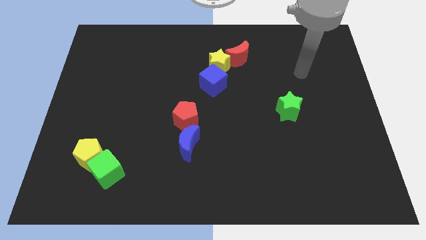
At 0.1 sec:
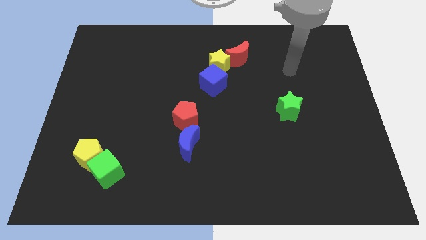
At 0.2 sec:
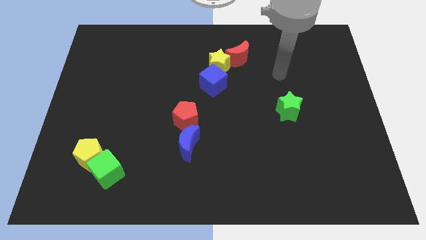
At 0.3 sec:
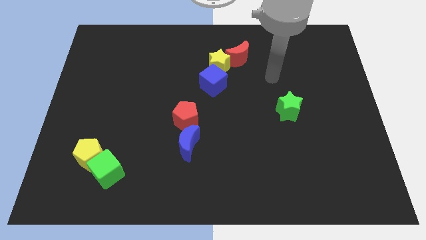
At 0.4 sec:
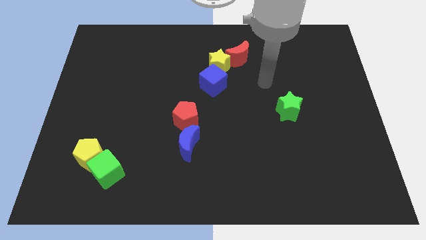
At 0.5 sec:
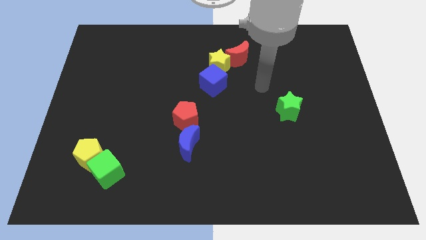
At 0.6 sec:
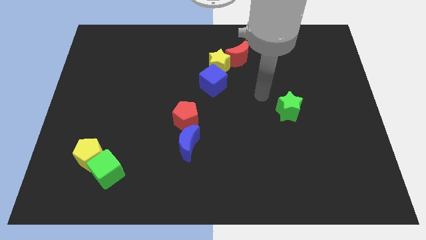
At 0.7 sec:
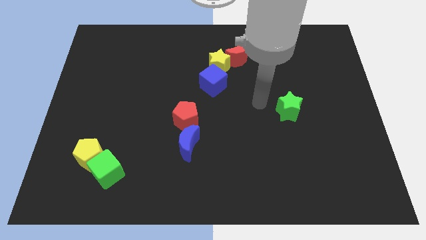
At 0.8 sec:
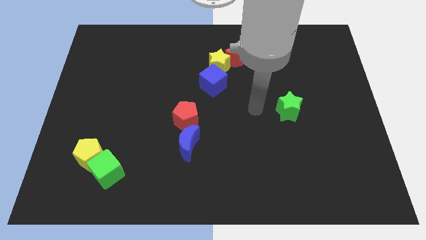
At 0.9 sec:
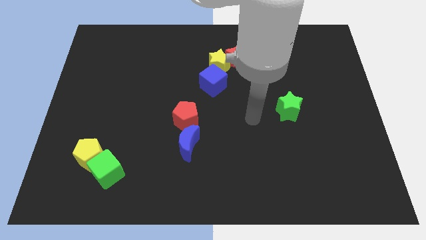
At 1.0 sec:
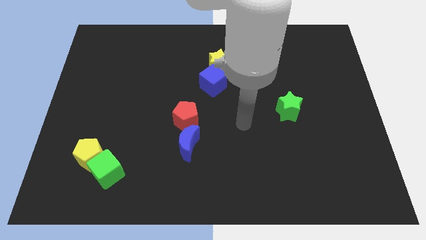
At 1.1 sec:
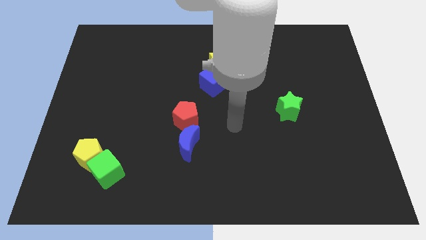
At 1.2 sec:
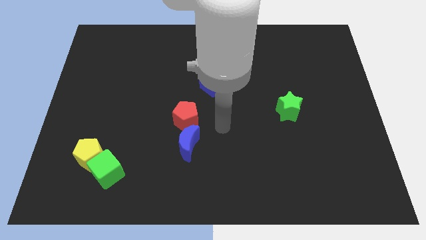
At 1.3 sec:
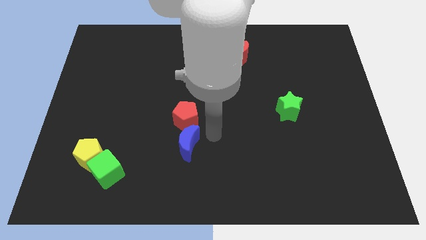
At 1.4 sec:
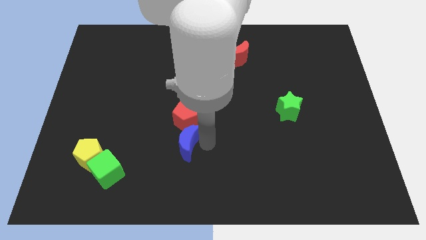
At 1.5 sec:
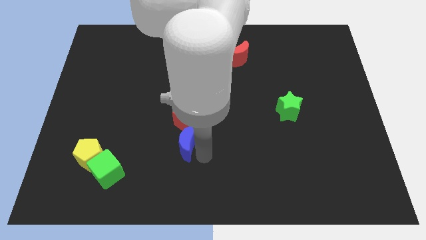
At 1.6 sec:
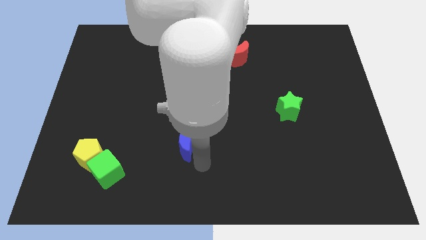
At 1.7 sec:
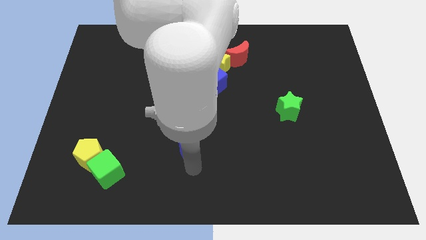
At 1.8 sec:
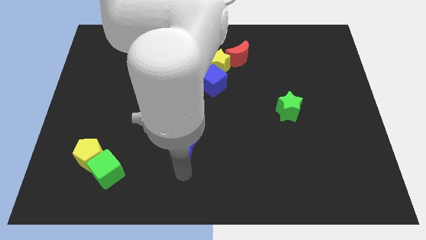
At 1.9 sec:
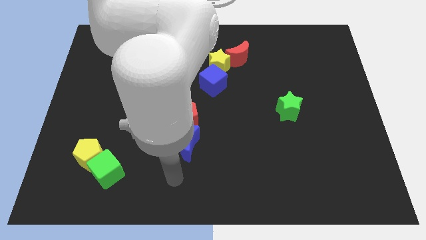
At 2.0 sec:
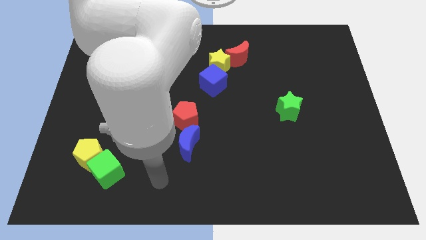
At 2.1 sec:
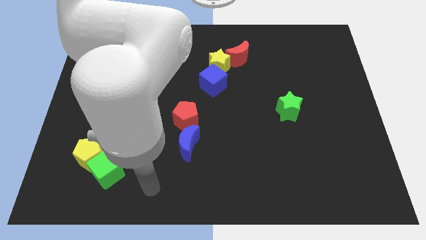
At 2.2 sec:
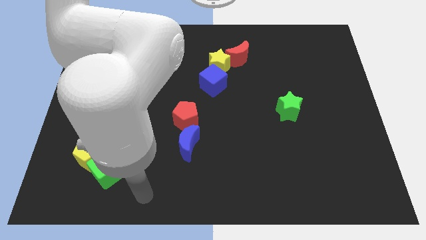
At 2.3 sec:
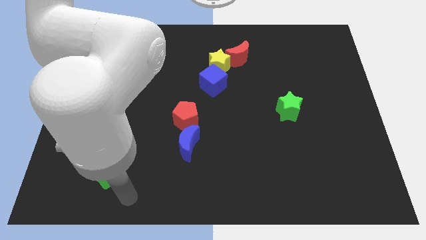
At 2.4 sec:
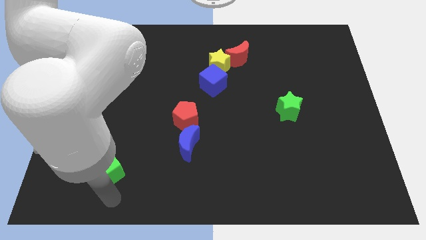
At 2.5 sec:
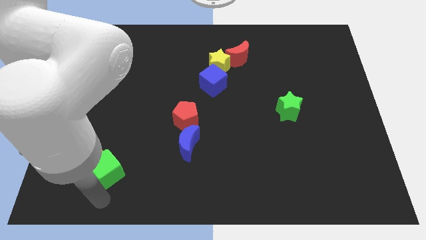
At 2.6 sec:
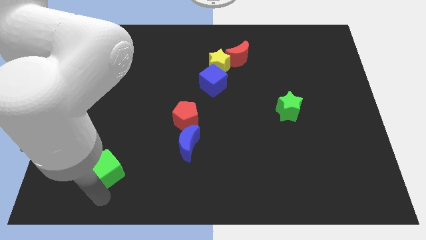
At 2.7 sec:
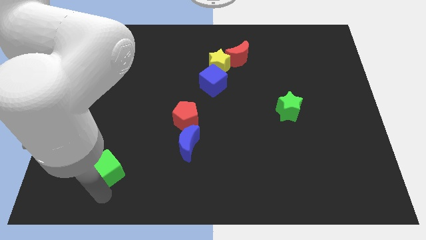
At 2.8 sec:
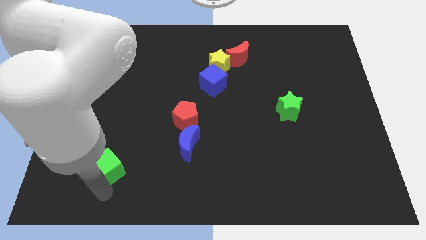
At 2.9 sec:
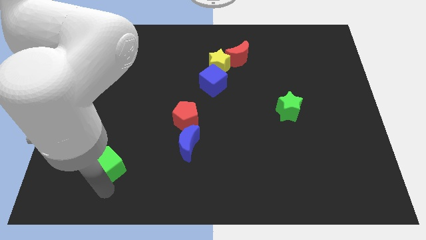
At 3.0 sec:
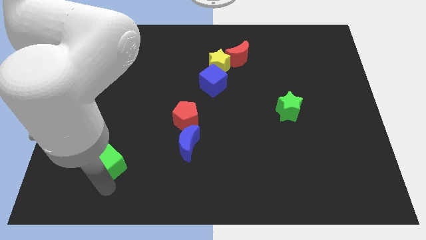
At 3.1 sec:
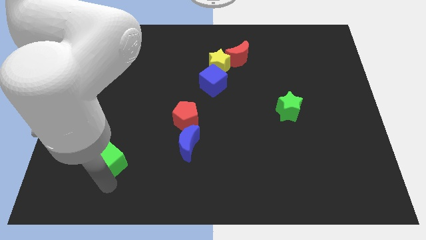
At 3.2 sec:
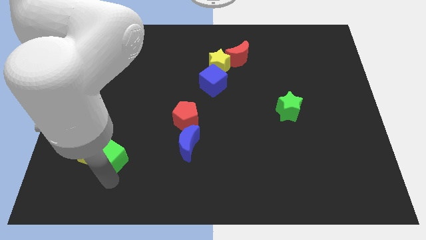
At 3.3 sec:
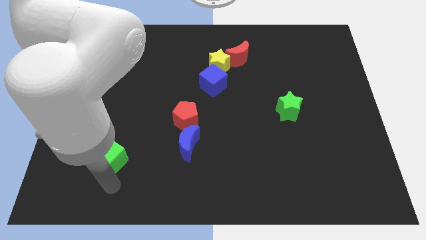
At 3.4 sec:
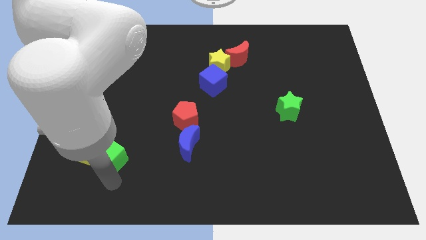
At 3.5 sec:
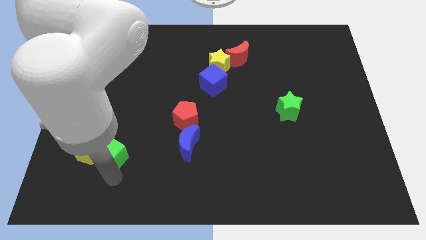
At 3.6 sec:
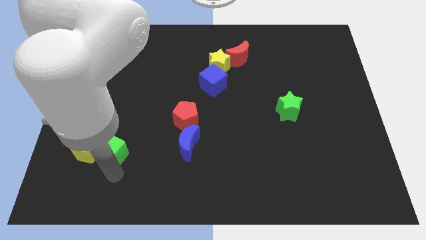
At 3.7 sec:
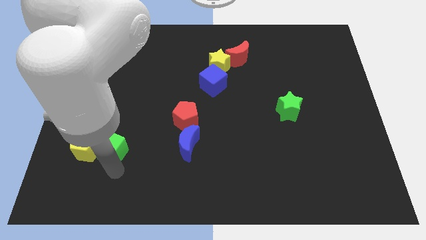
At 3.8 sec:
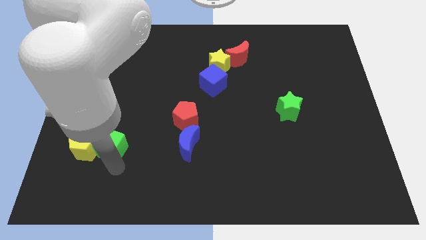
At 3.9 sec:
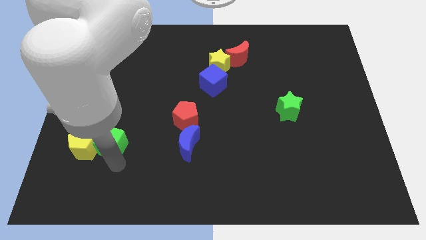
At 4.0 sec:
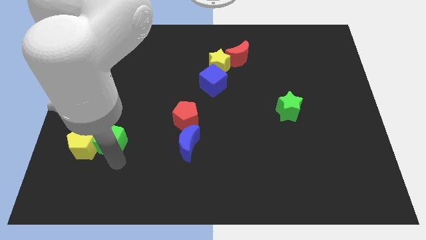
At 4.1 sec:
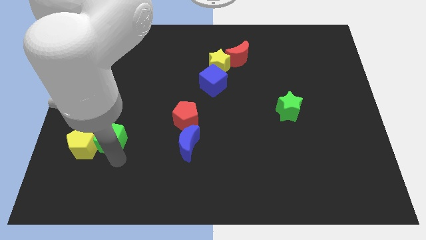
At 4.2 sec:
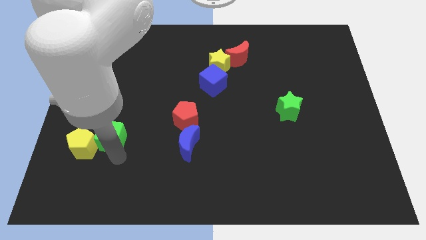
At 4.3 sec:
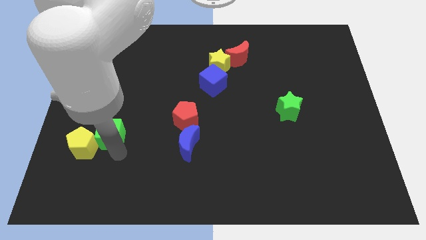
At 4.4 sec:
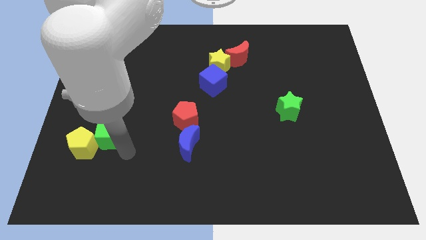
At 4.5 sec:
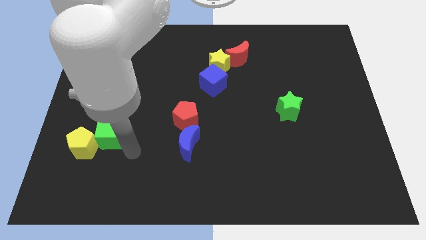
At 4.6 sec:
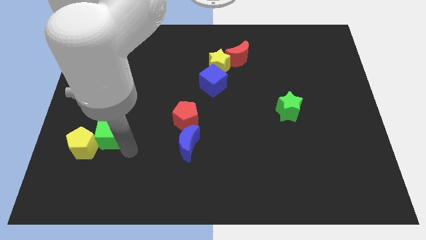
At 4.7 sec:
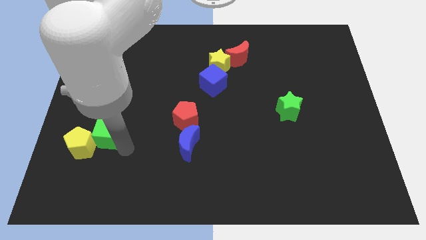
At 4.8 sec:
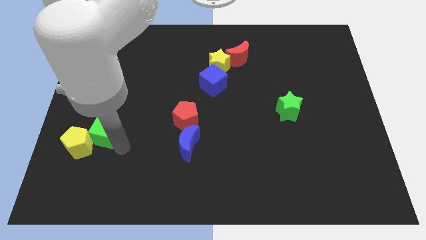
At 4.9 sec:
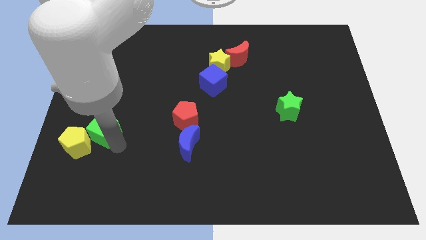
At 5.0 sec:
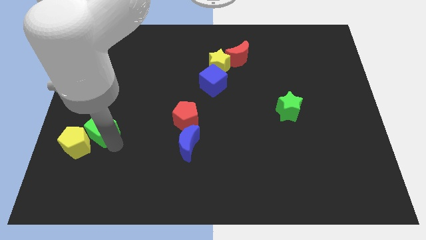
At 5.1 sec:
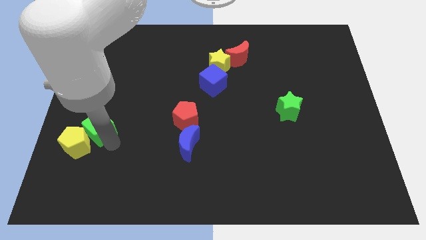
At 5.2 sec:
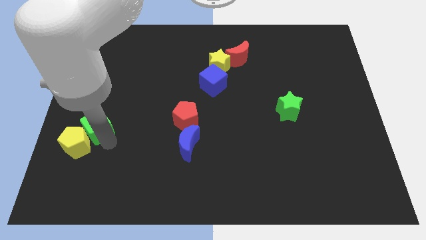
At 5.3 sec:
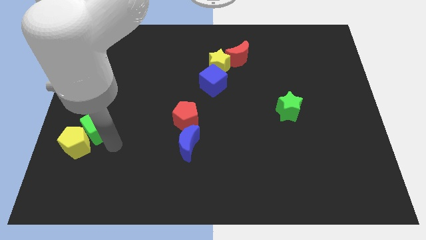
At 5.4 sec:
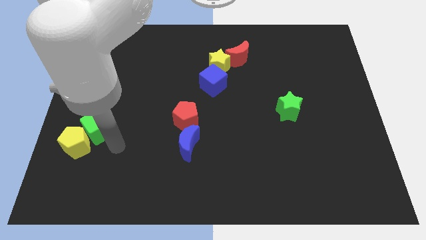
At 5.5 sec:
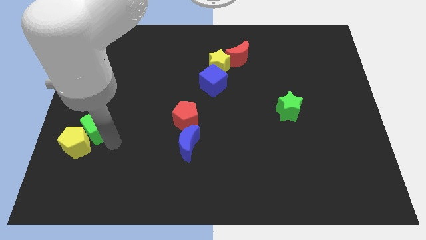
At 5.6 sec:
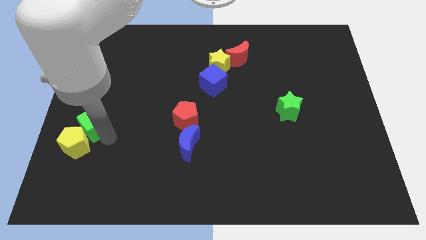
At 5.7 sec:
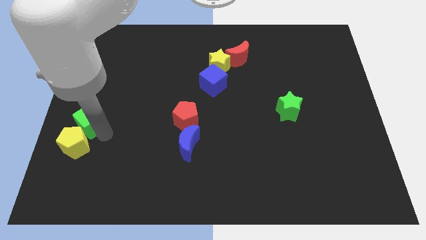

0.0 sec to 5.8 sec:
slide the green cube to the center left

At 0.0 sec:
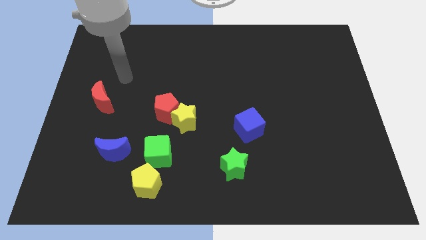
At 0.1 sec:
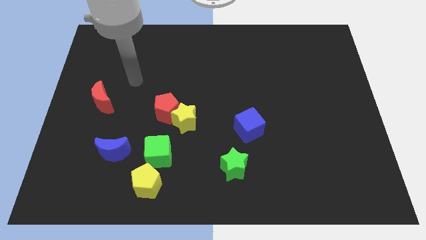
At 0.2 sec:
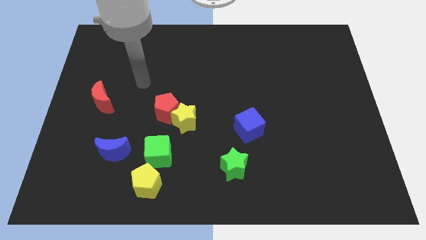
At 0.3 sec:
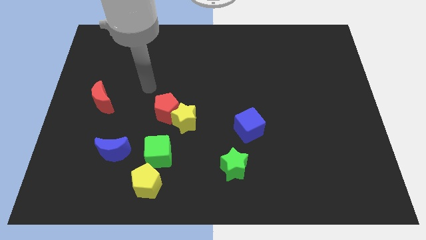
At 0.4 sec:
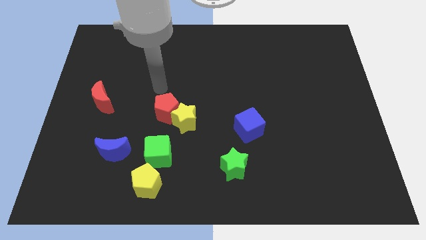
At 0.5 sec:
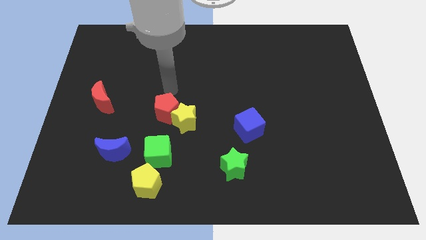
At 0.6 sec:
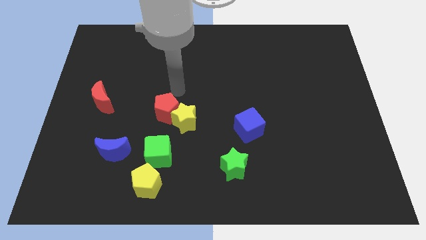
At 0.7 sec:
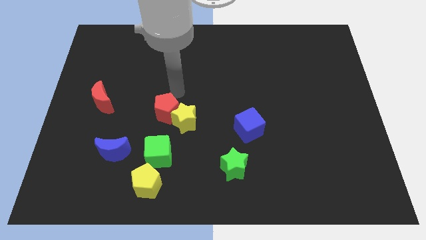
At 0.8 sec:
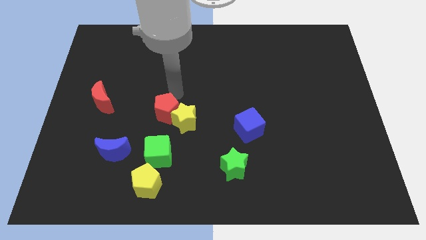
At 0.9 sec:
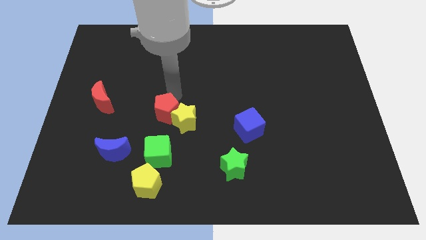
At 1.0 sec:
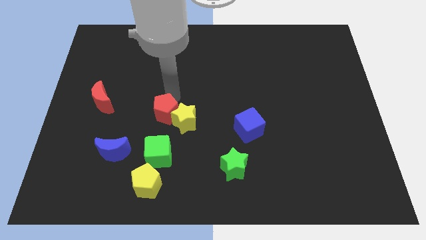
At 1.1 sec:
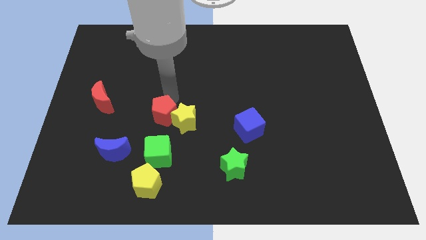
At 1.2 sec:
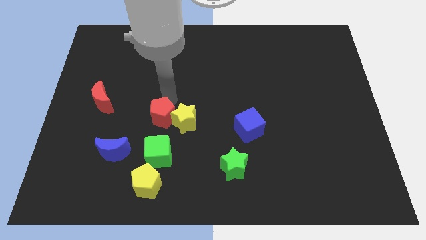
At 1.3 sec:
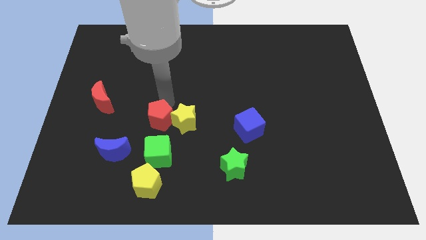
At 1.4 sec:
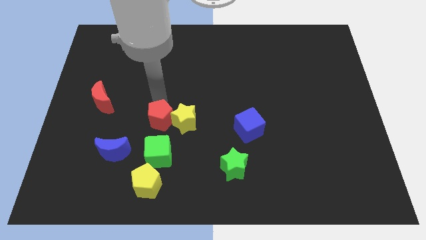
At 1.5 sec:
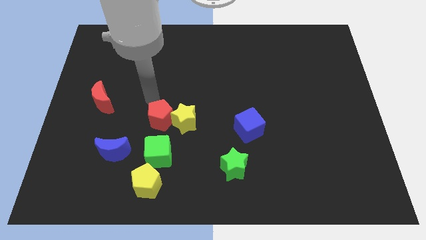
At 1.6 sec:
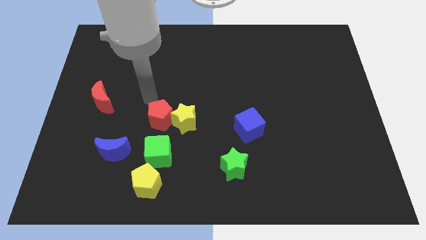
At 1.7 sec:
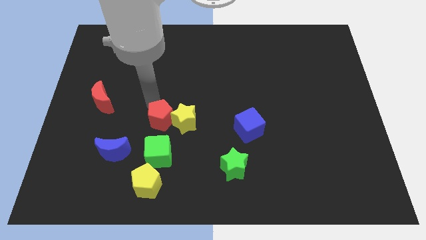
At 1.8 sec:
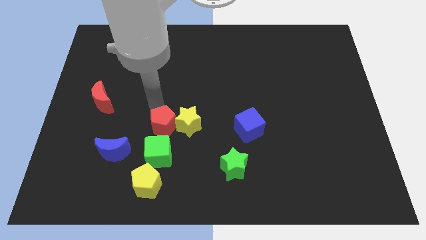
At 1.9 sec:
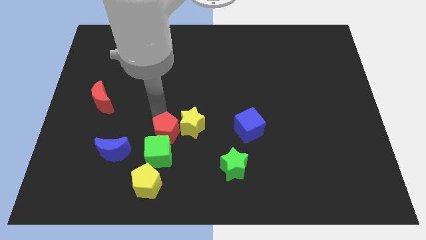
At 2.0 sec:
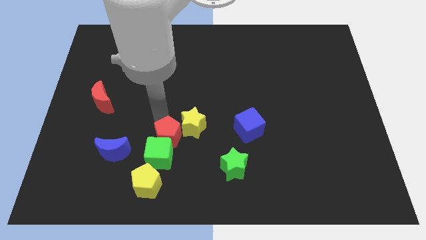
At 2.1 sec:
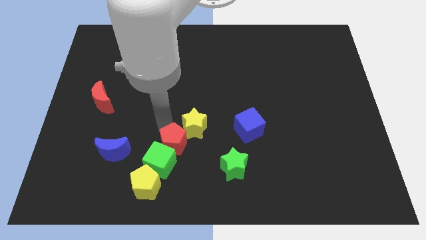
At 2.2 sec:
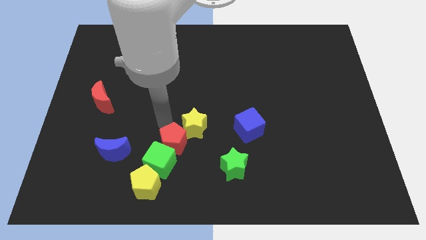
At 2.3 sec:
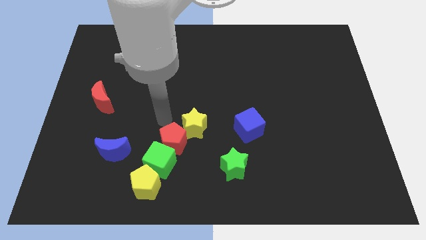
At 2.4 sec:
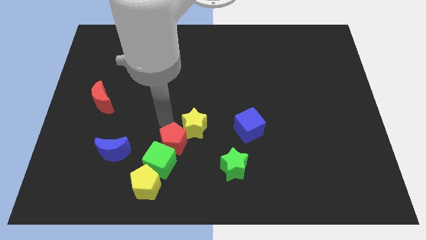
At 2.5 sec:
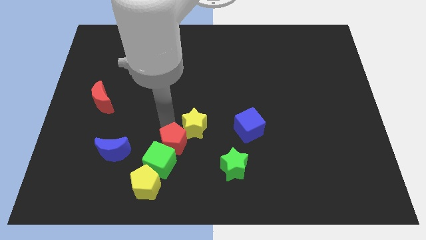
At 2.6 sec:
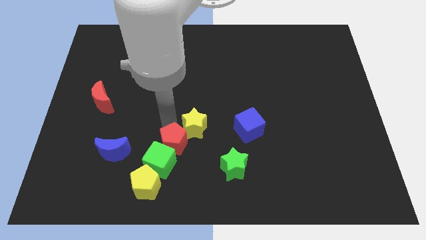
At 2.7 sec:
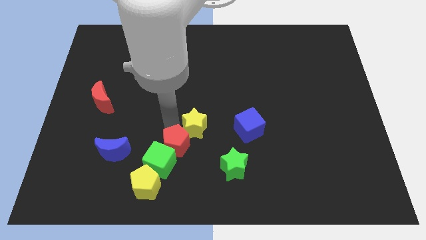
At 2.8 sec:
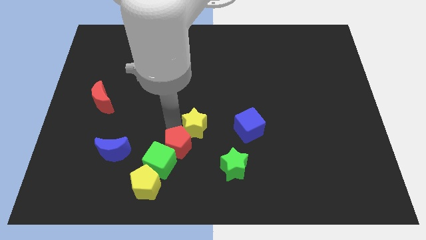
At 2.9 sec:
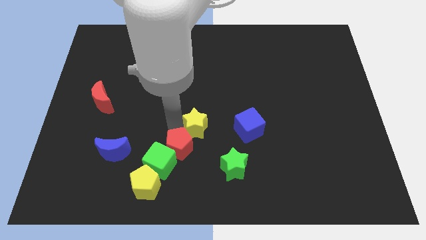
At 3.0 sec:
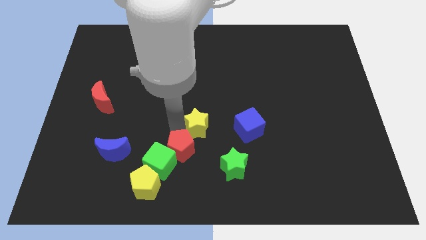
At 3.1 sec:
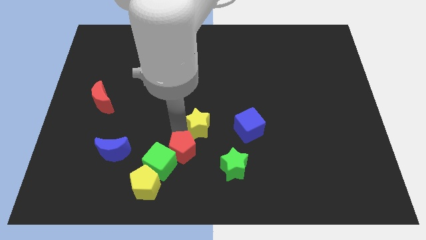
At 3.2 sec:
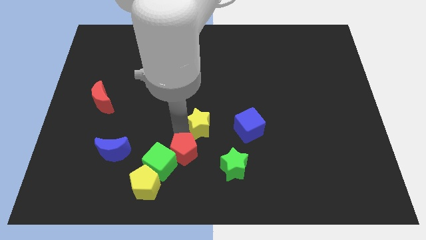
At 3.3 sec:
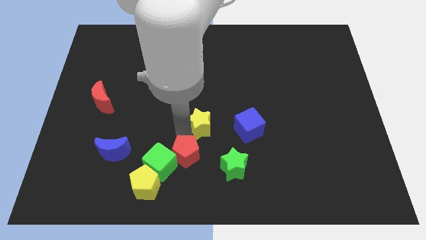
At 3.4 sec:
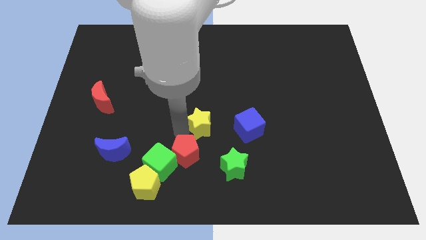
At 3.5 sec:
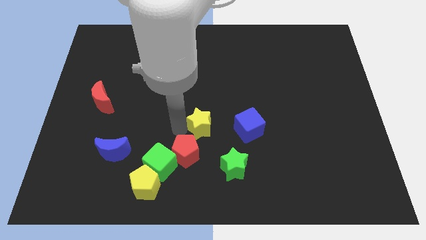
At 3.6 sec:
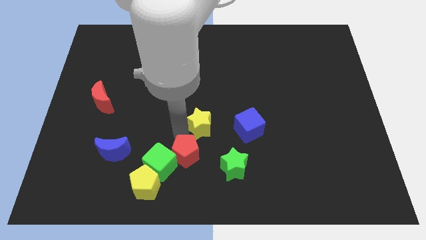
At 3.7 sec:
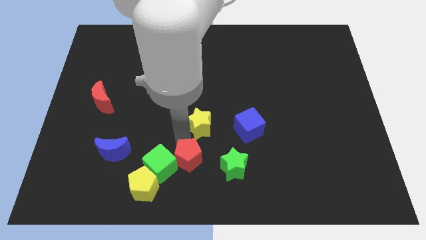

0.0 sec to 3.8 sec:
put the red pentagon to the bottom side
